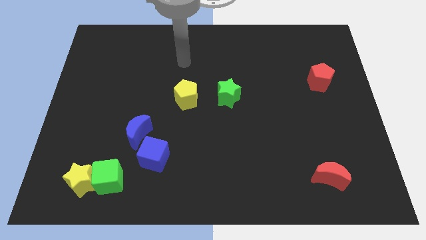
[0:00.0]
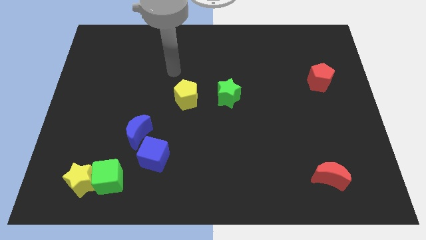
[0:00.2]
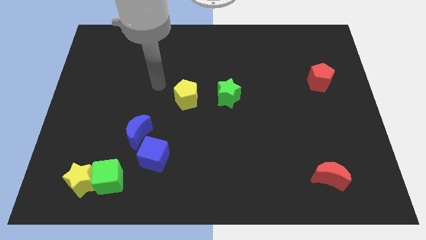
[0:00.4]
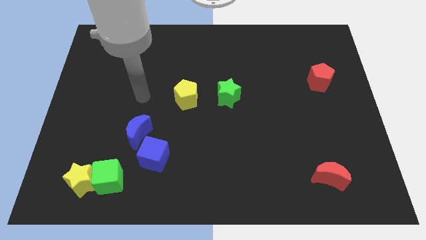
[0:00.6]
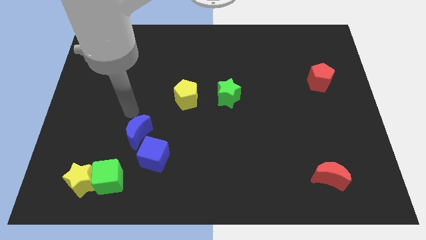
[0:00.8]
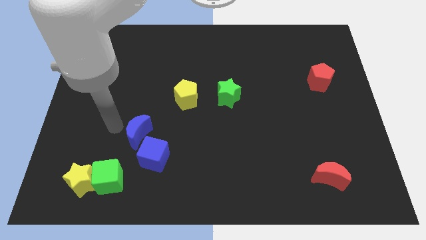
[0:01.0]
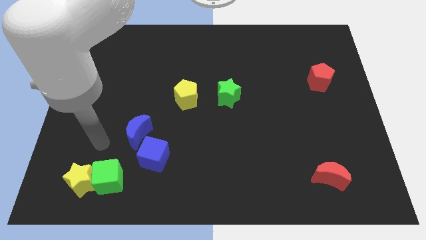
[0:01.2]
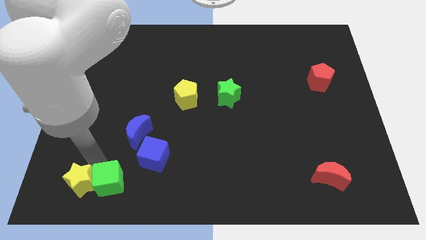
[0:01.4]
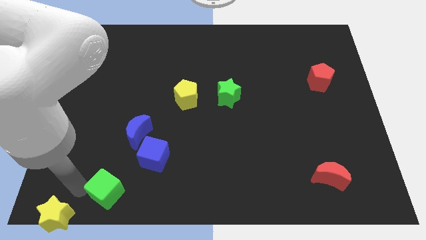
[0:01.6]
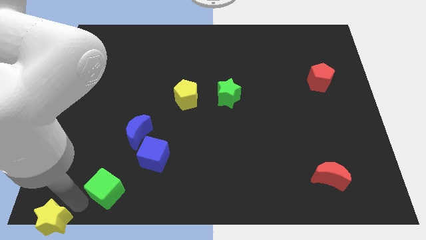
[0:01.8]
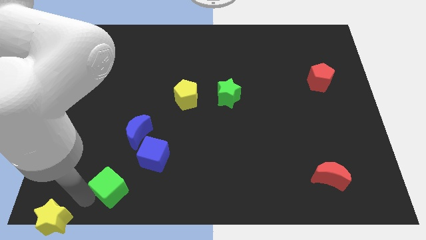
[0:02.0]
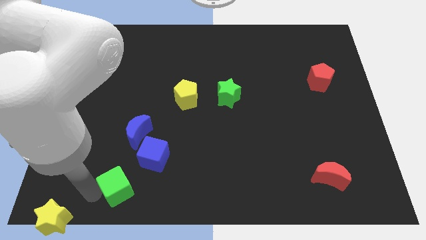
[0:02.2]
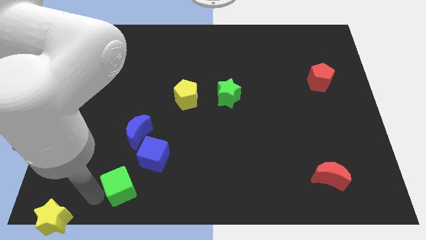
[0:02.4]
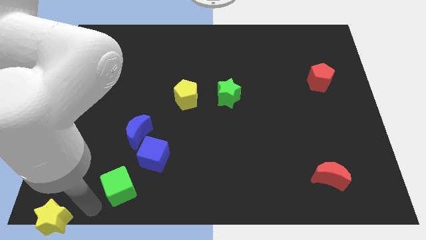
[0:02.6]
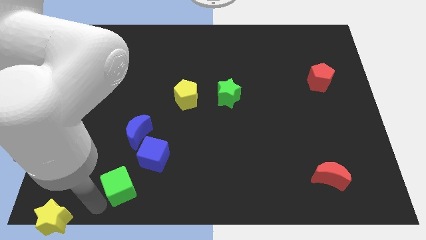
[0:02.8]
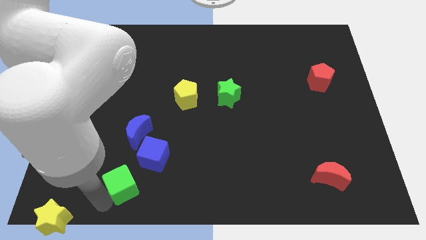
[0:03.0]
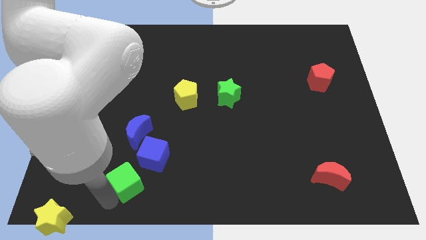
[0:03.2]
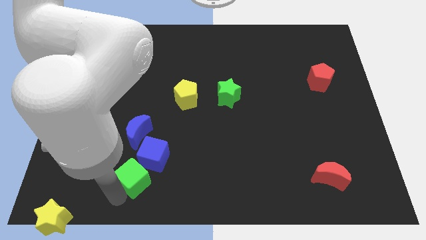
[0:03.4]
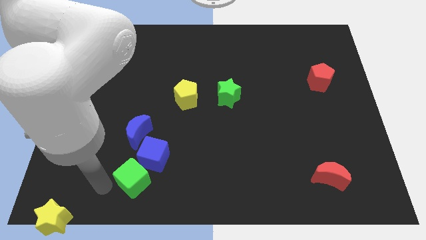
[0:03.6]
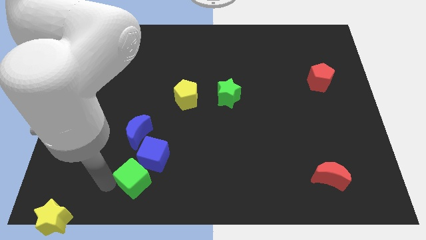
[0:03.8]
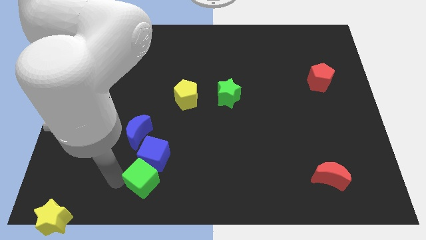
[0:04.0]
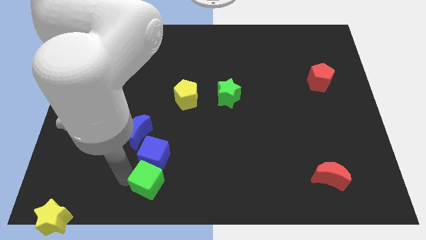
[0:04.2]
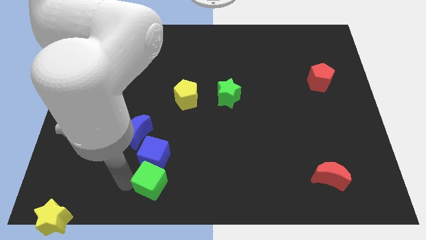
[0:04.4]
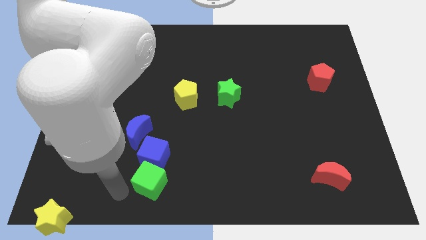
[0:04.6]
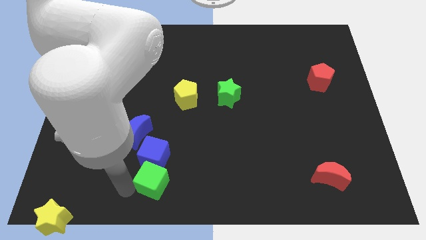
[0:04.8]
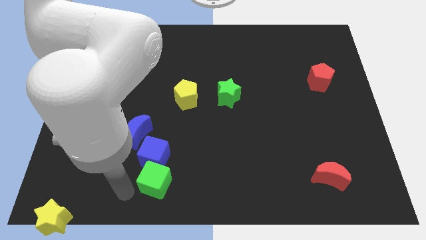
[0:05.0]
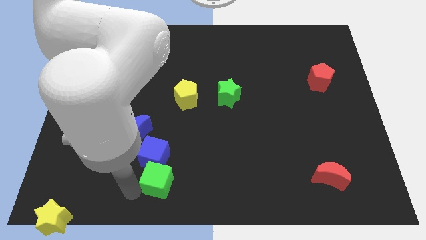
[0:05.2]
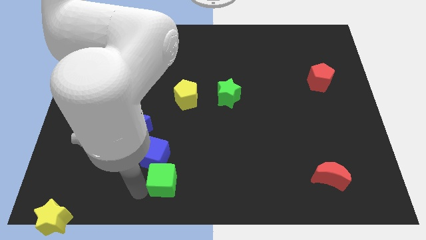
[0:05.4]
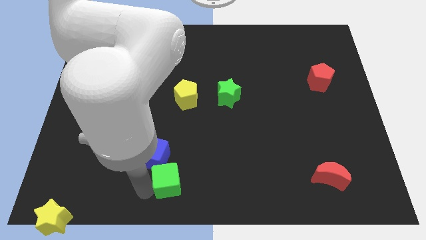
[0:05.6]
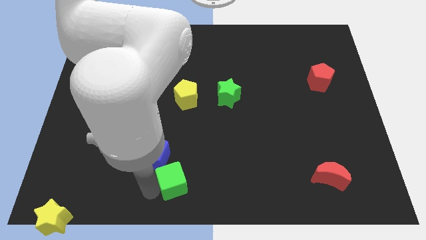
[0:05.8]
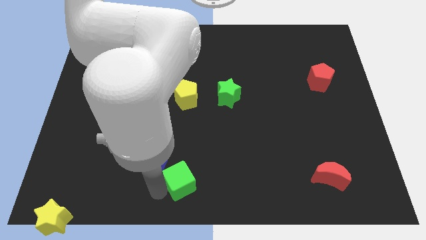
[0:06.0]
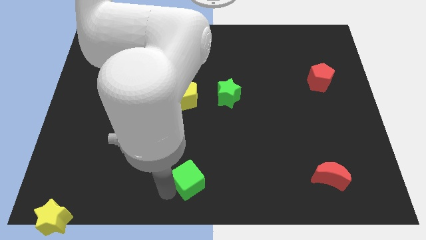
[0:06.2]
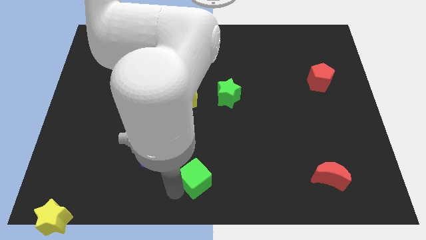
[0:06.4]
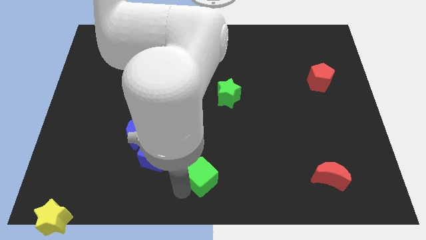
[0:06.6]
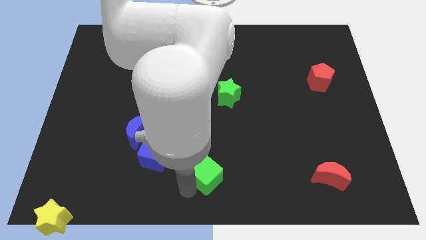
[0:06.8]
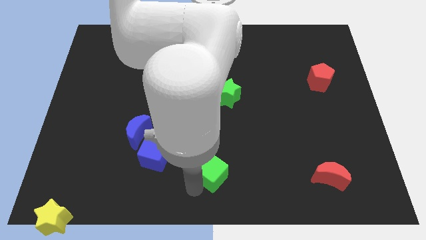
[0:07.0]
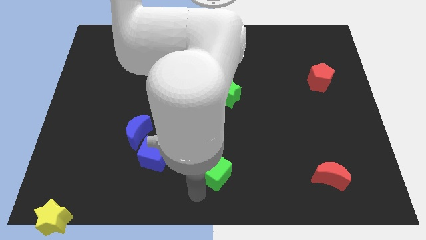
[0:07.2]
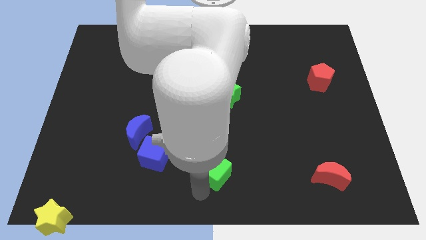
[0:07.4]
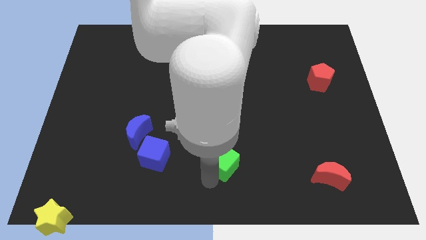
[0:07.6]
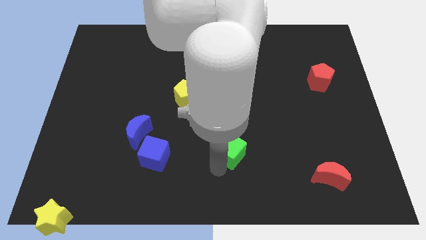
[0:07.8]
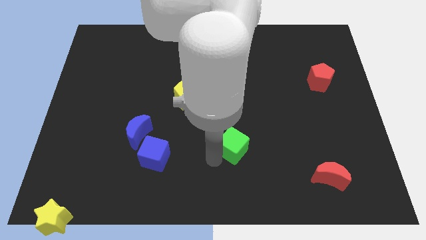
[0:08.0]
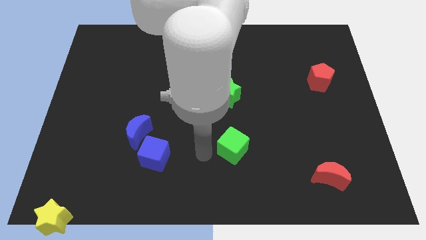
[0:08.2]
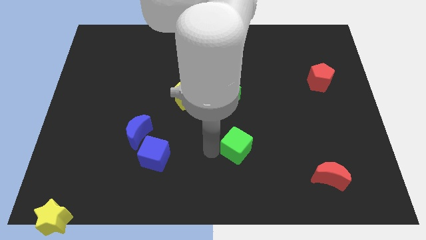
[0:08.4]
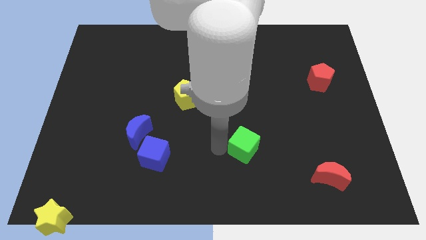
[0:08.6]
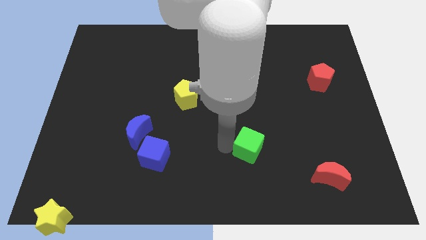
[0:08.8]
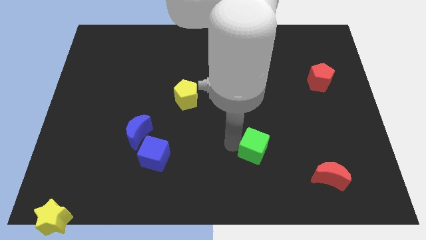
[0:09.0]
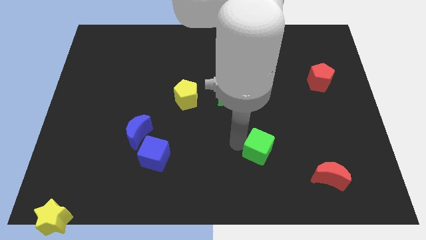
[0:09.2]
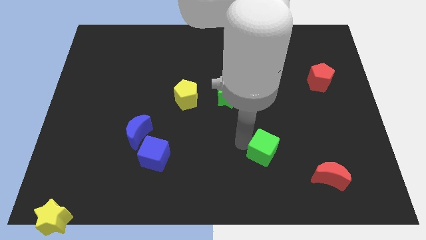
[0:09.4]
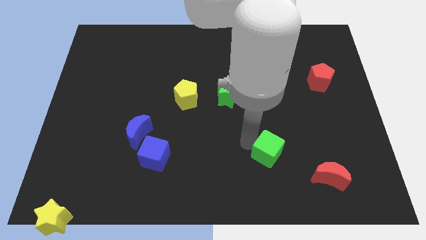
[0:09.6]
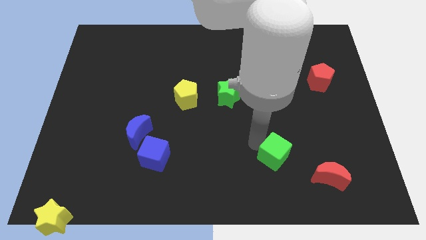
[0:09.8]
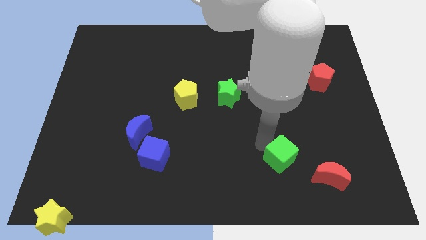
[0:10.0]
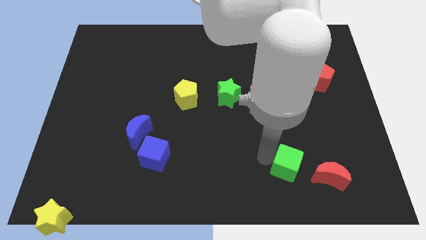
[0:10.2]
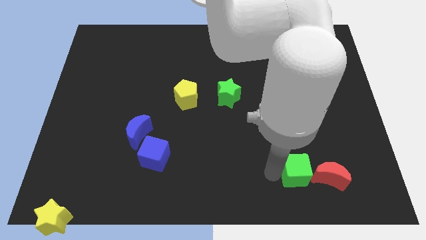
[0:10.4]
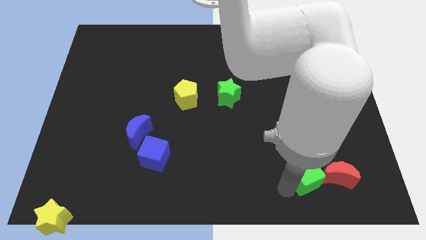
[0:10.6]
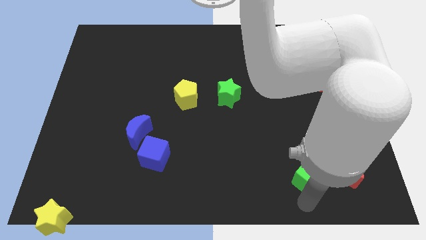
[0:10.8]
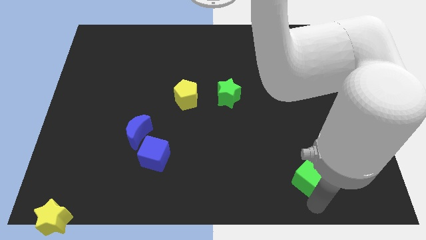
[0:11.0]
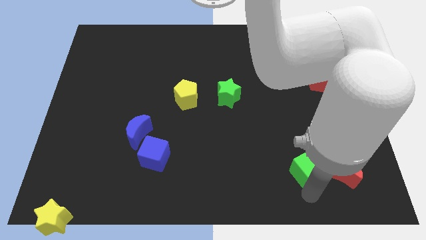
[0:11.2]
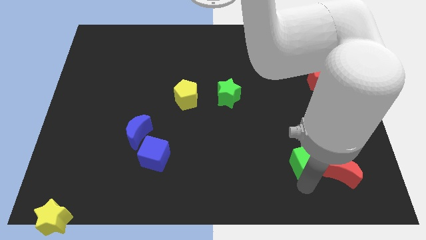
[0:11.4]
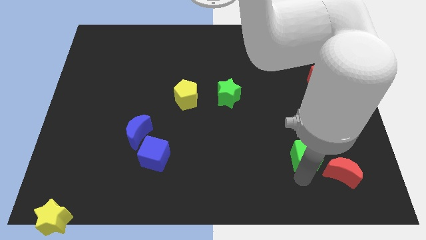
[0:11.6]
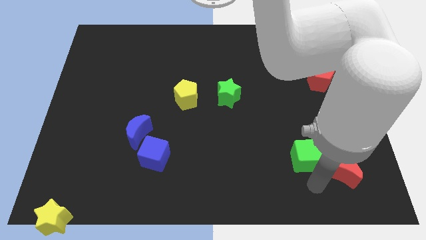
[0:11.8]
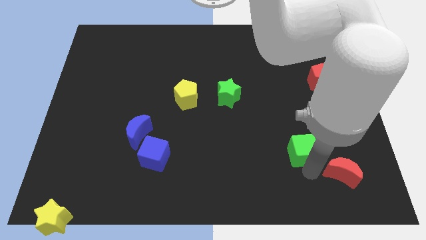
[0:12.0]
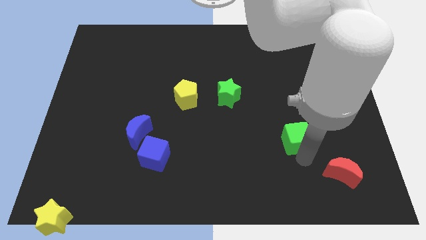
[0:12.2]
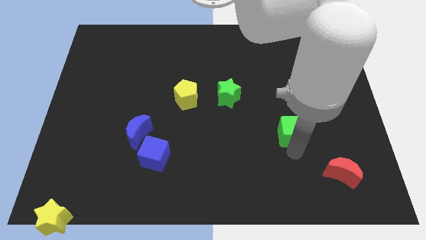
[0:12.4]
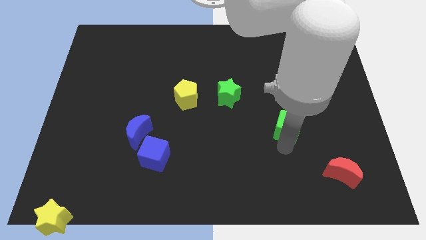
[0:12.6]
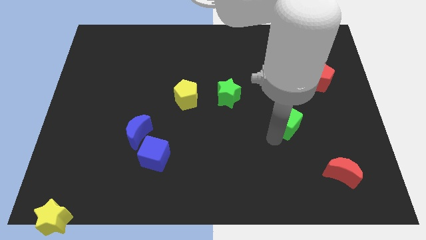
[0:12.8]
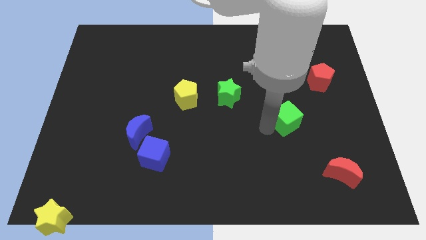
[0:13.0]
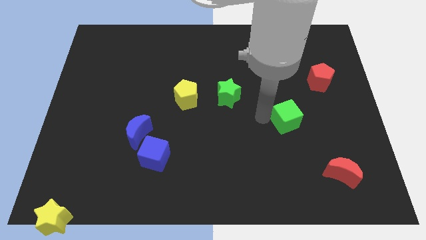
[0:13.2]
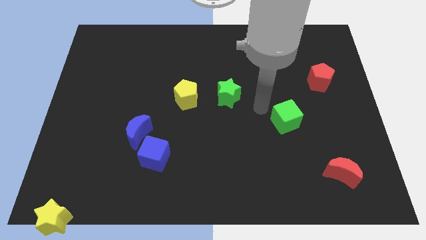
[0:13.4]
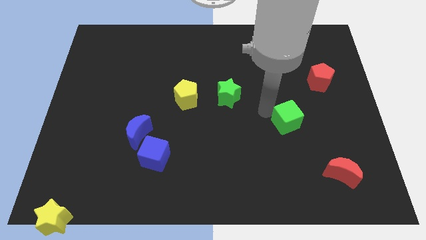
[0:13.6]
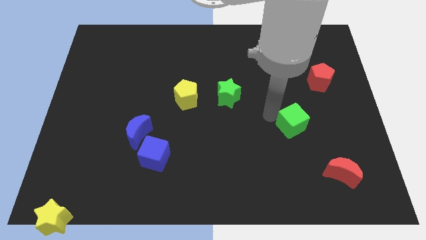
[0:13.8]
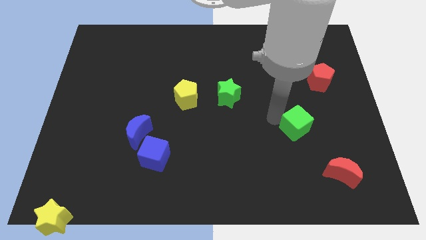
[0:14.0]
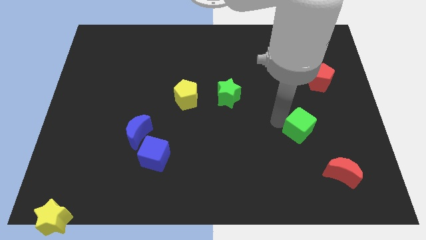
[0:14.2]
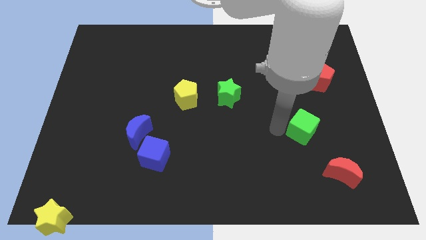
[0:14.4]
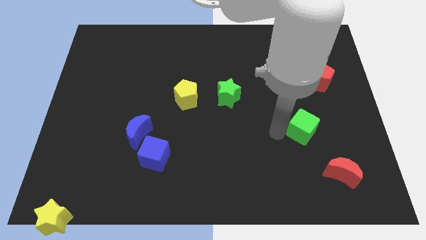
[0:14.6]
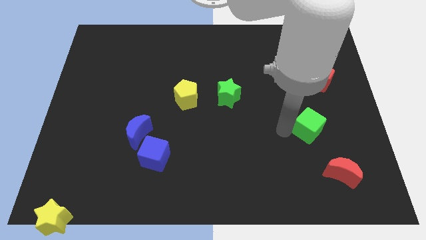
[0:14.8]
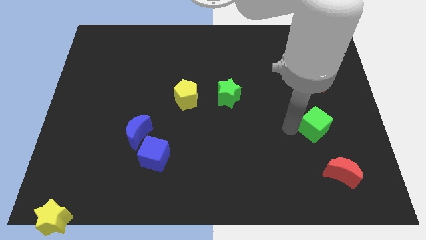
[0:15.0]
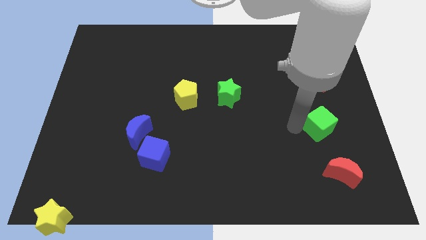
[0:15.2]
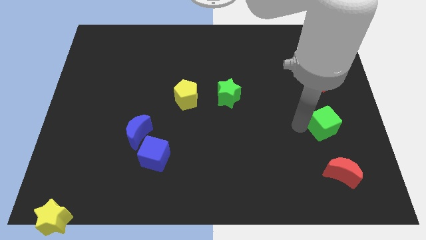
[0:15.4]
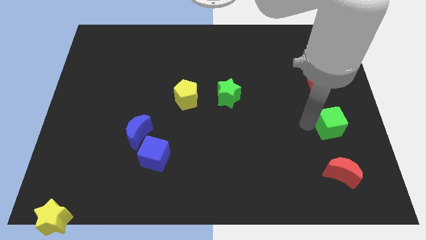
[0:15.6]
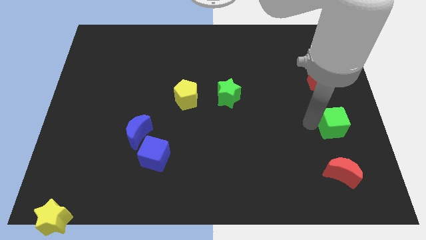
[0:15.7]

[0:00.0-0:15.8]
put the green cube to the right side
